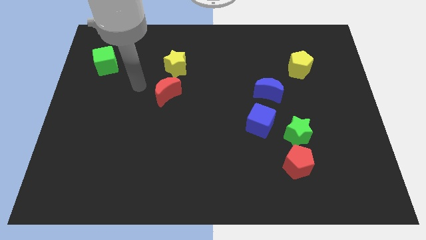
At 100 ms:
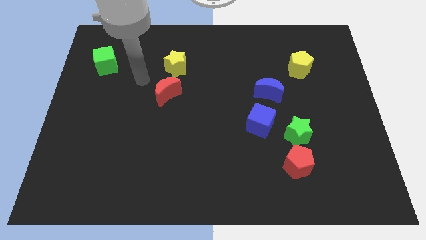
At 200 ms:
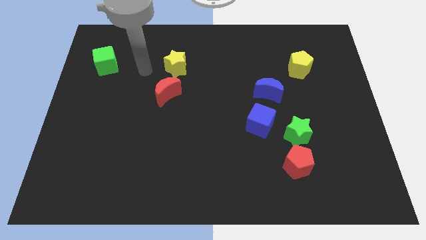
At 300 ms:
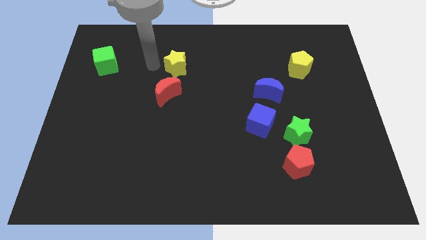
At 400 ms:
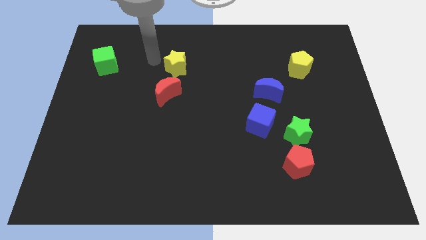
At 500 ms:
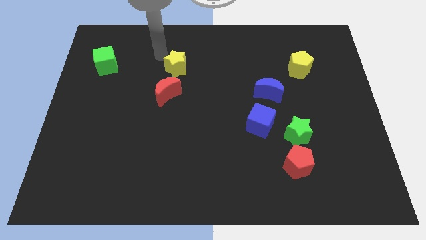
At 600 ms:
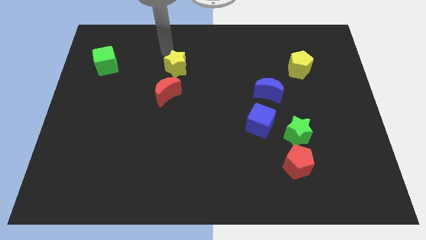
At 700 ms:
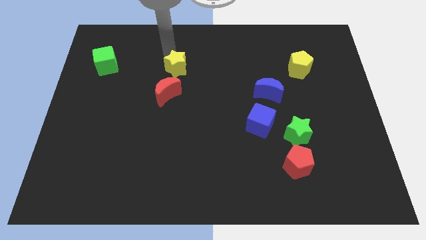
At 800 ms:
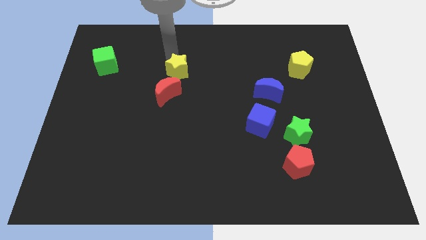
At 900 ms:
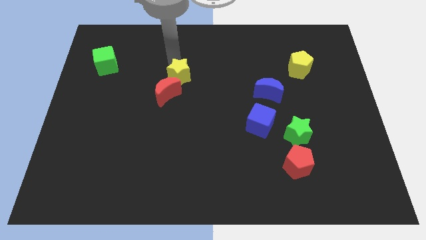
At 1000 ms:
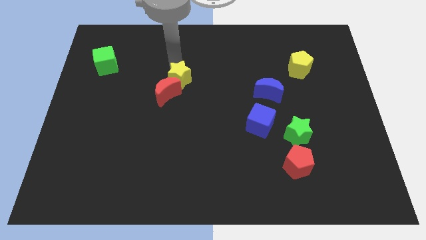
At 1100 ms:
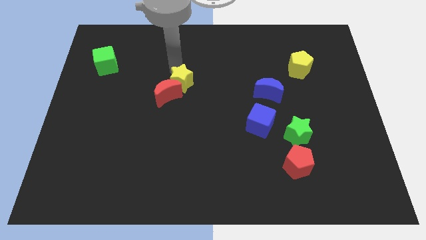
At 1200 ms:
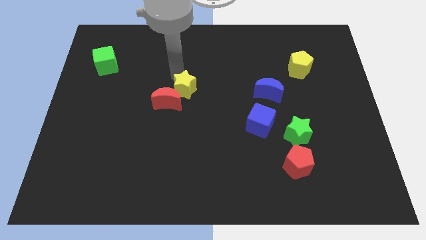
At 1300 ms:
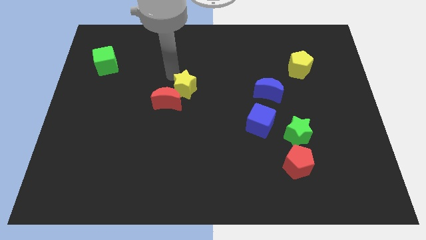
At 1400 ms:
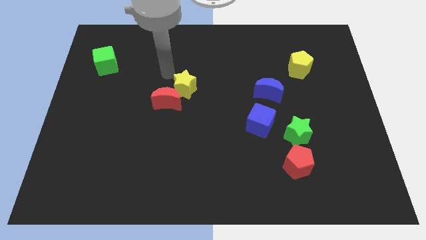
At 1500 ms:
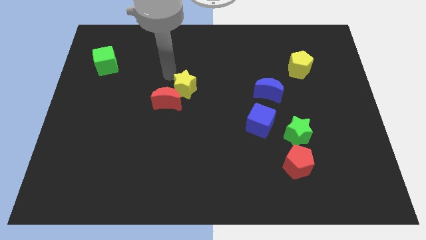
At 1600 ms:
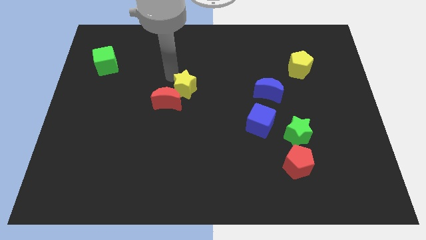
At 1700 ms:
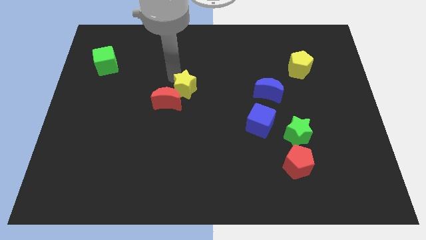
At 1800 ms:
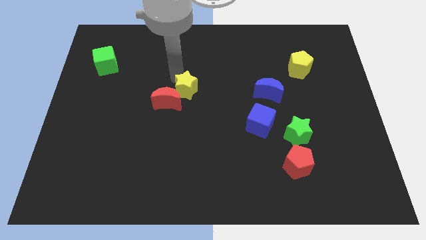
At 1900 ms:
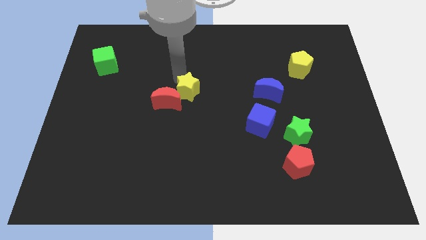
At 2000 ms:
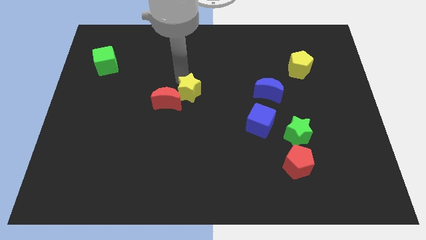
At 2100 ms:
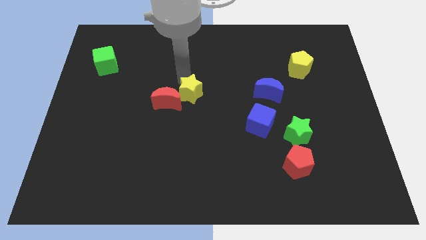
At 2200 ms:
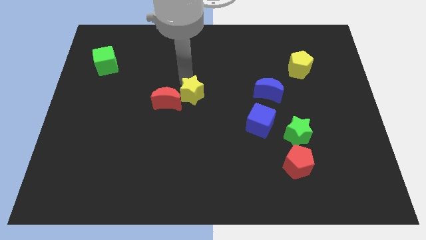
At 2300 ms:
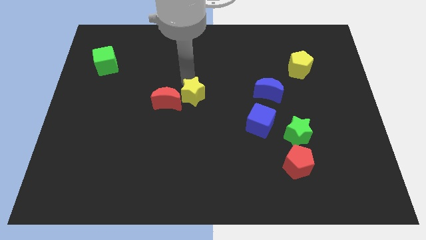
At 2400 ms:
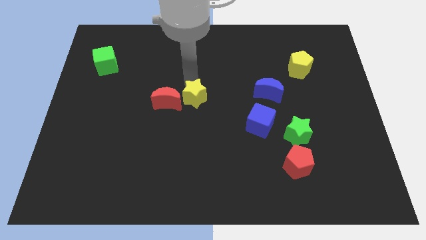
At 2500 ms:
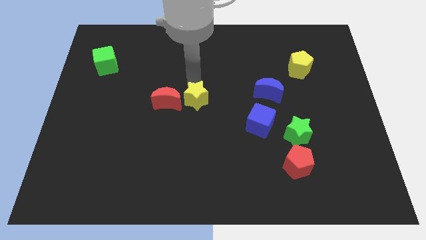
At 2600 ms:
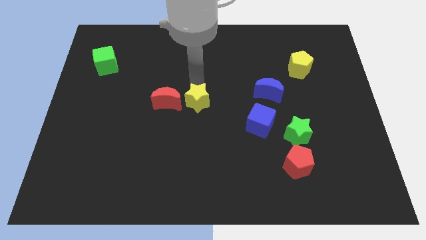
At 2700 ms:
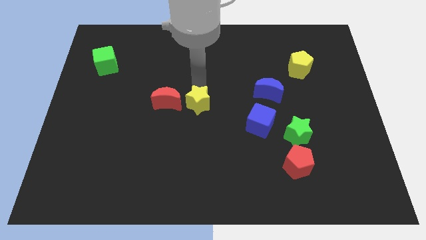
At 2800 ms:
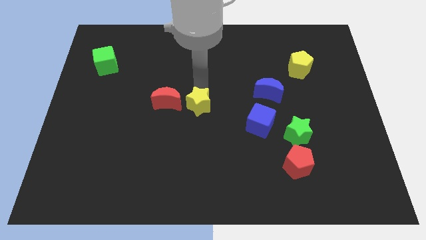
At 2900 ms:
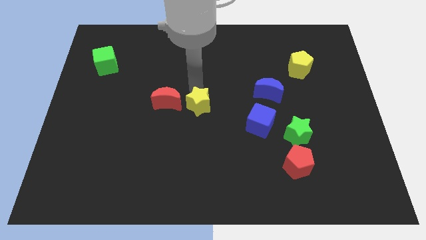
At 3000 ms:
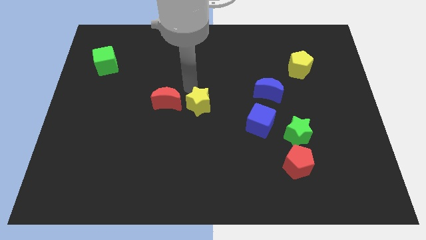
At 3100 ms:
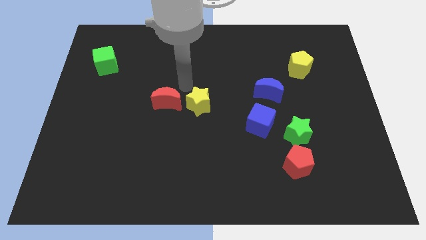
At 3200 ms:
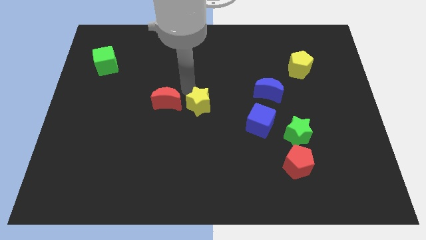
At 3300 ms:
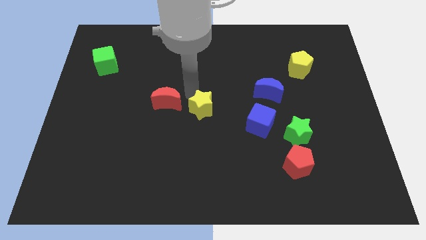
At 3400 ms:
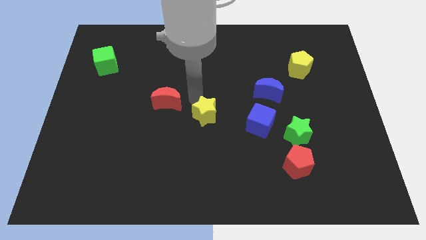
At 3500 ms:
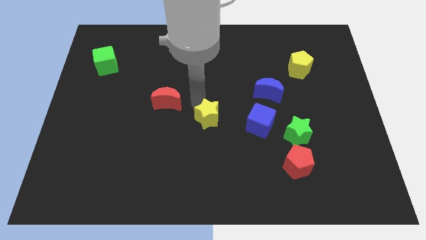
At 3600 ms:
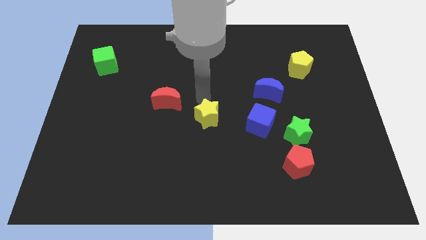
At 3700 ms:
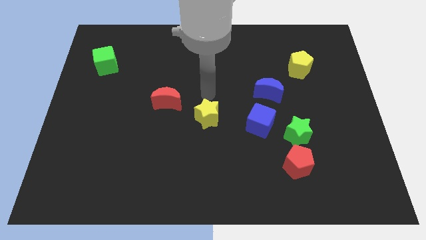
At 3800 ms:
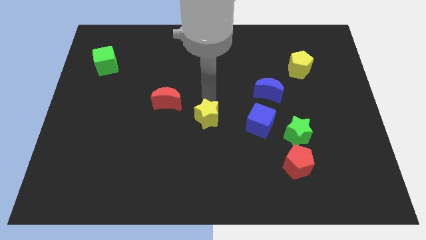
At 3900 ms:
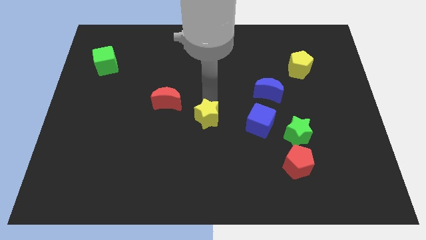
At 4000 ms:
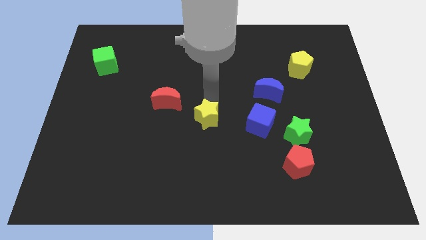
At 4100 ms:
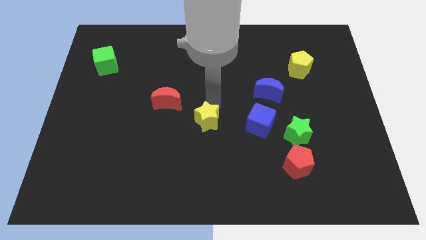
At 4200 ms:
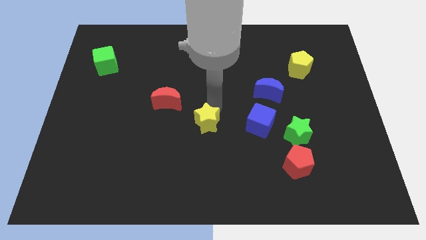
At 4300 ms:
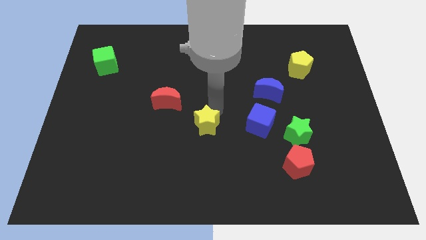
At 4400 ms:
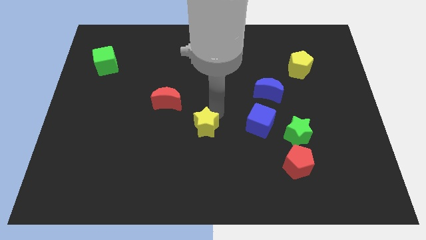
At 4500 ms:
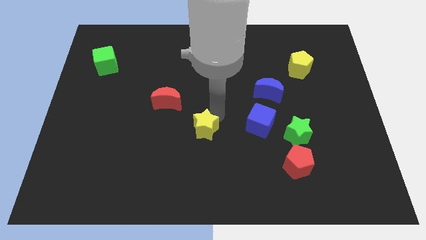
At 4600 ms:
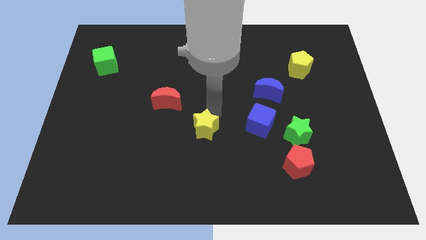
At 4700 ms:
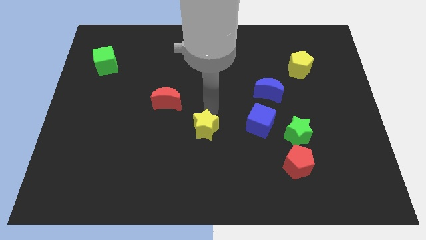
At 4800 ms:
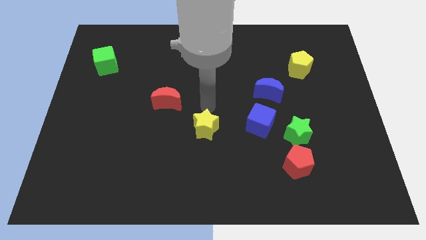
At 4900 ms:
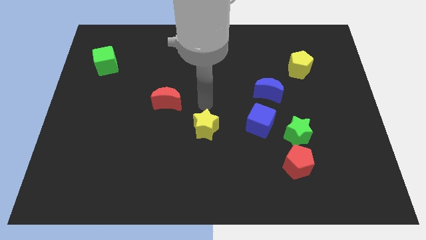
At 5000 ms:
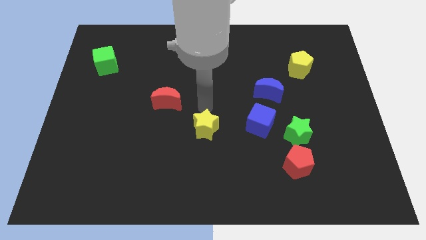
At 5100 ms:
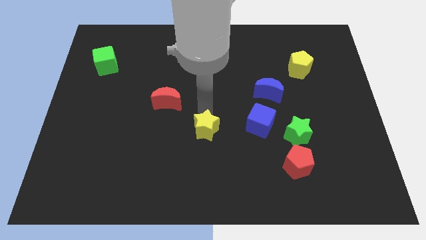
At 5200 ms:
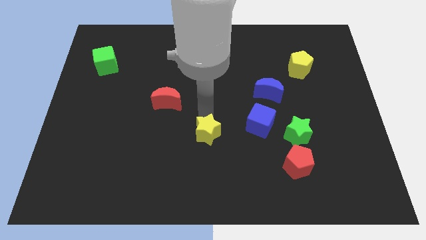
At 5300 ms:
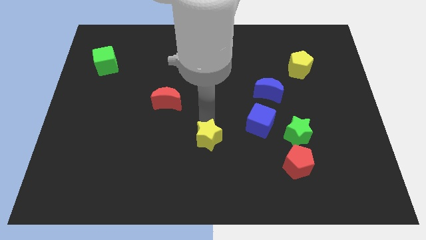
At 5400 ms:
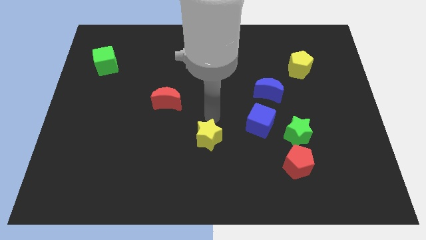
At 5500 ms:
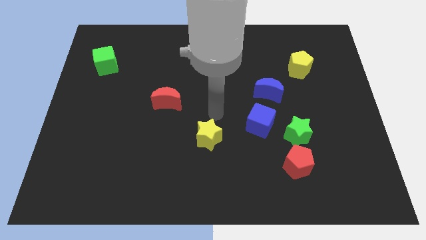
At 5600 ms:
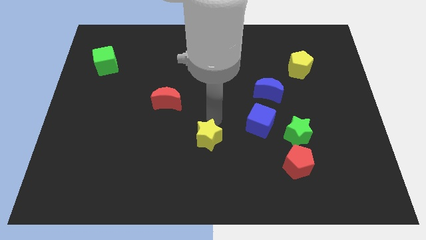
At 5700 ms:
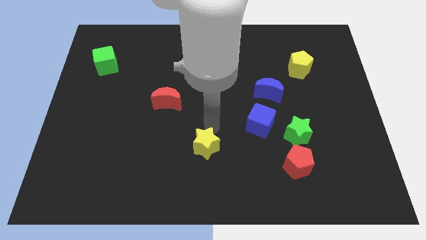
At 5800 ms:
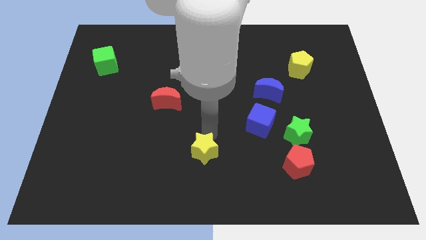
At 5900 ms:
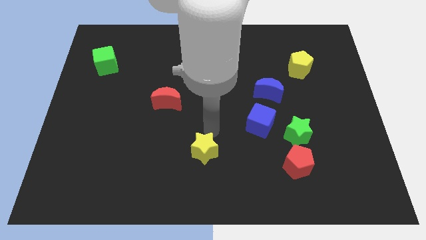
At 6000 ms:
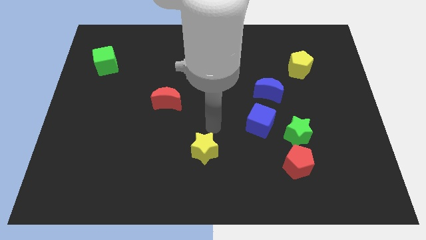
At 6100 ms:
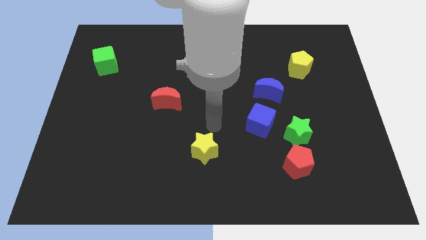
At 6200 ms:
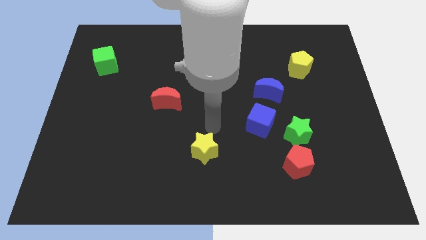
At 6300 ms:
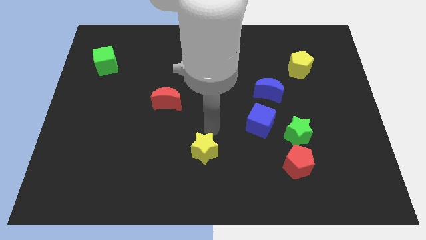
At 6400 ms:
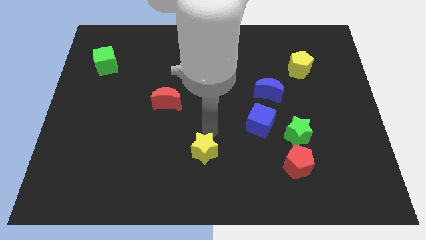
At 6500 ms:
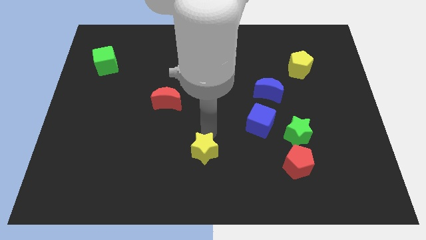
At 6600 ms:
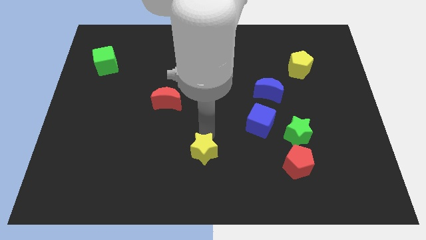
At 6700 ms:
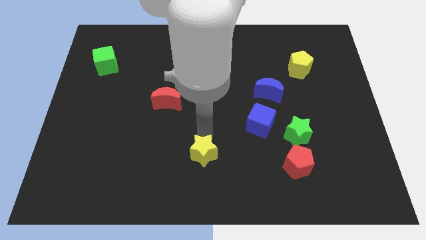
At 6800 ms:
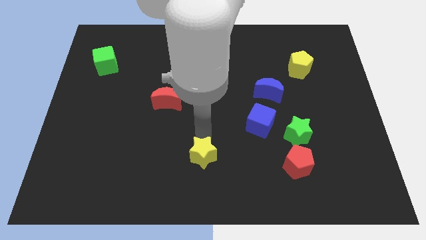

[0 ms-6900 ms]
slide the yellow star to the bottom side
